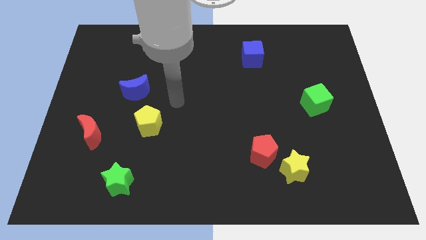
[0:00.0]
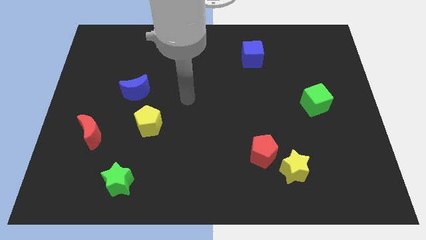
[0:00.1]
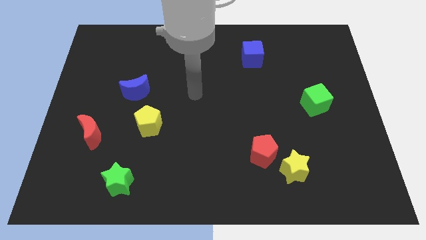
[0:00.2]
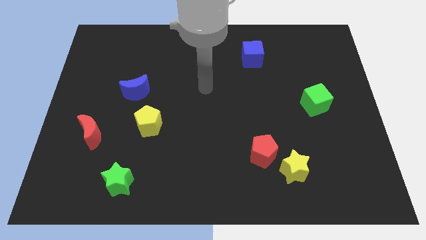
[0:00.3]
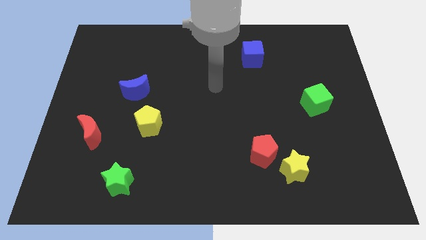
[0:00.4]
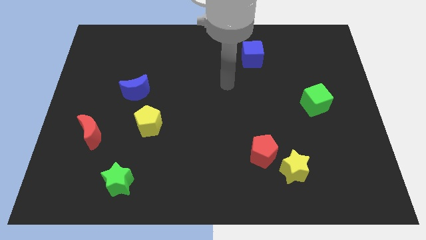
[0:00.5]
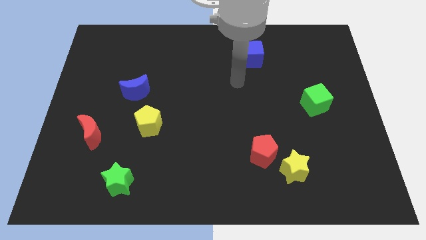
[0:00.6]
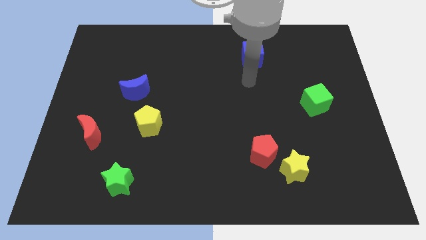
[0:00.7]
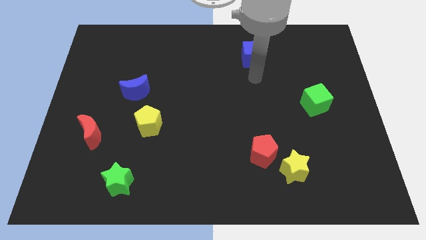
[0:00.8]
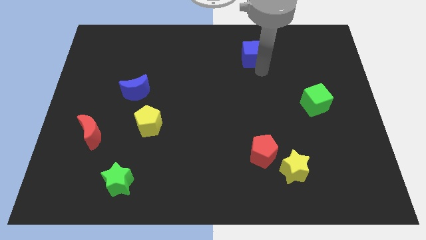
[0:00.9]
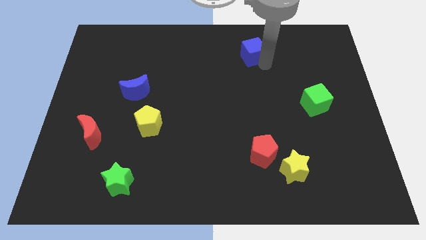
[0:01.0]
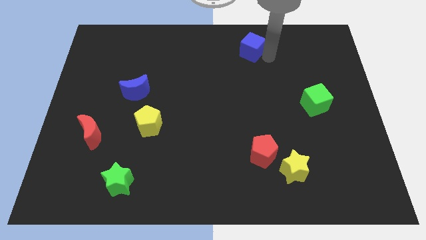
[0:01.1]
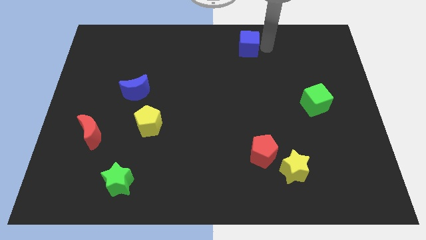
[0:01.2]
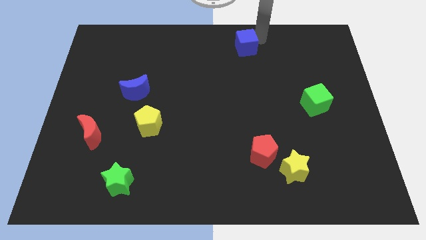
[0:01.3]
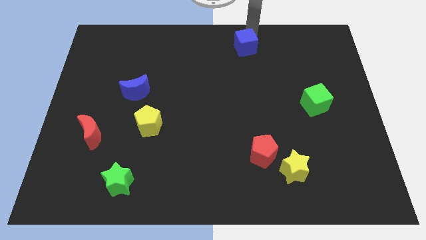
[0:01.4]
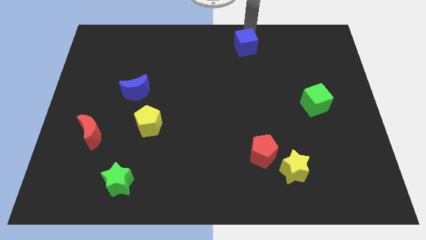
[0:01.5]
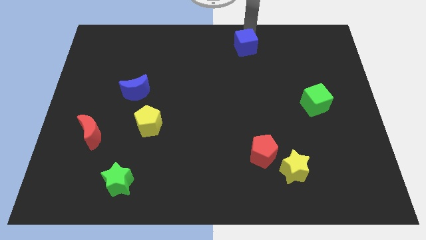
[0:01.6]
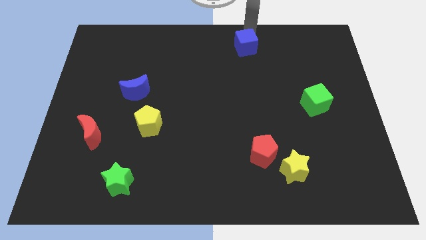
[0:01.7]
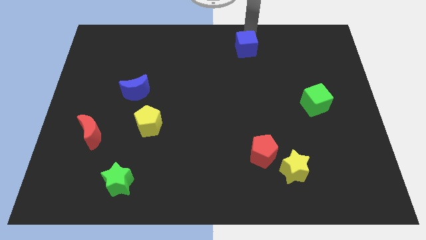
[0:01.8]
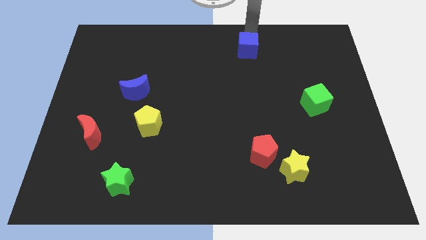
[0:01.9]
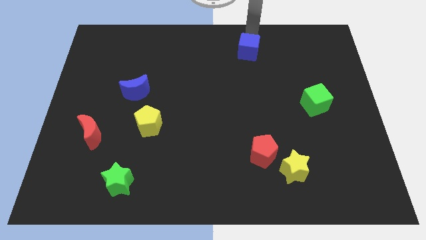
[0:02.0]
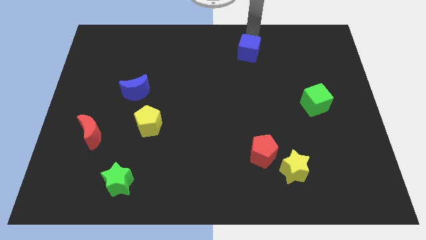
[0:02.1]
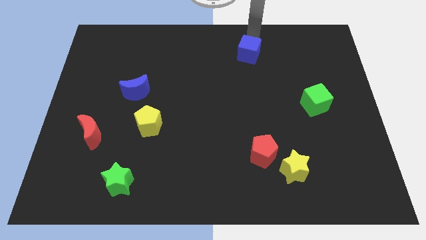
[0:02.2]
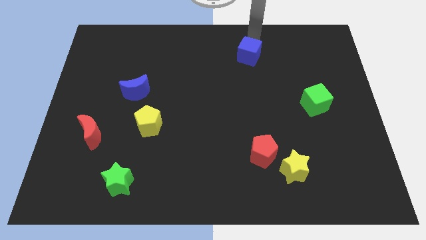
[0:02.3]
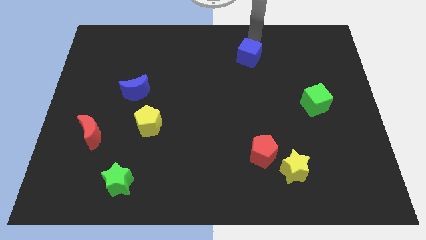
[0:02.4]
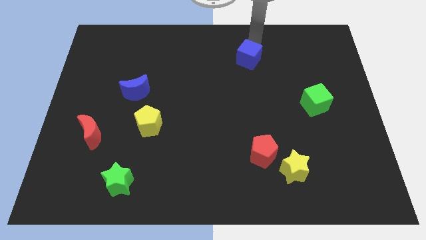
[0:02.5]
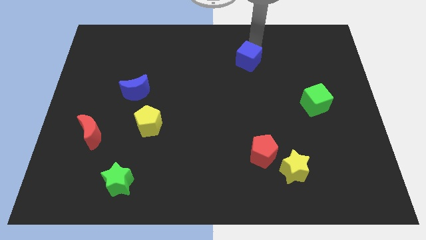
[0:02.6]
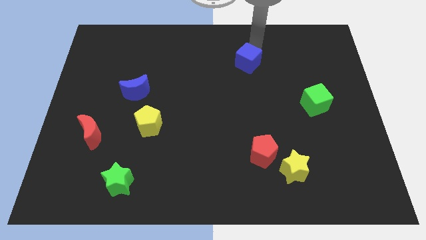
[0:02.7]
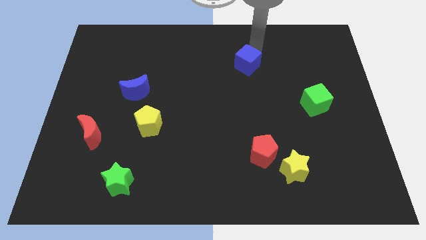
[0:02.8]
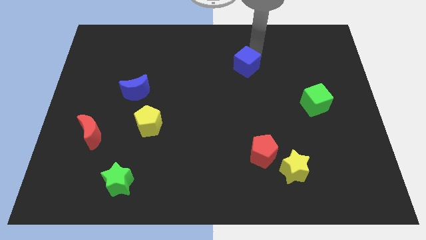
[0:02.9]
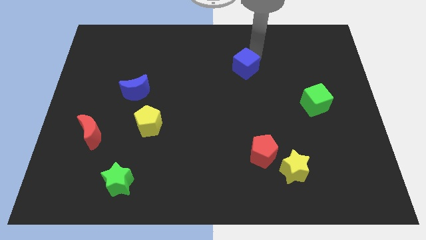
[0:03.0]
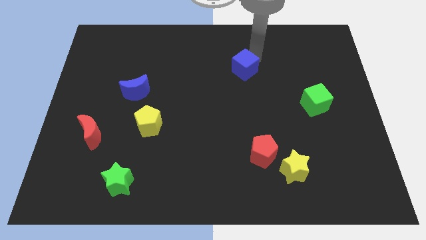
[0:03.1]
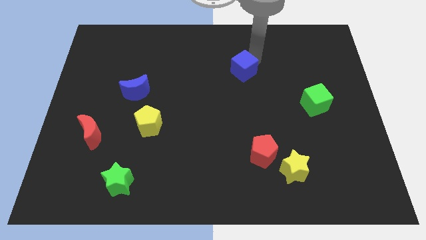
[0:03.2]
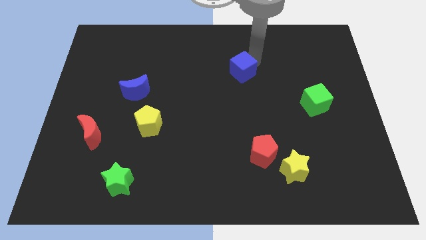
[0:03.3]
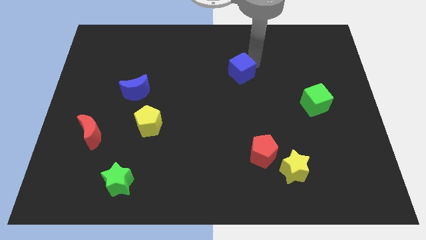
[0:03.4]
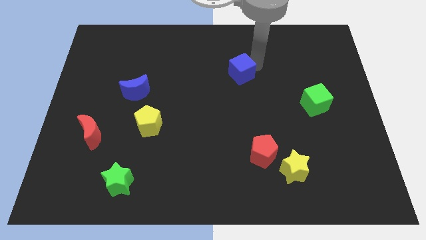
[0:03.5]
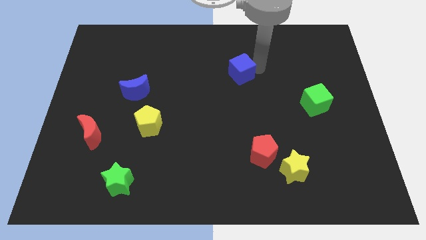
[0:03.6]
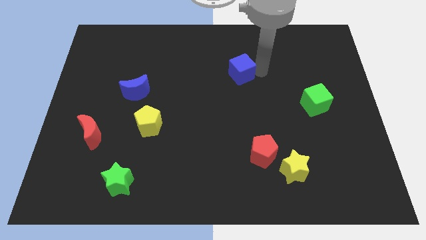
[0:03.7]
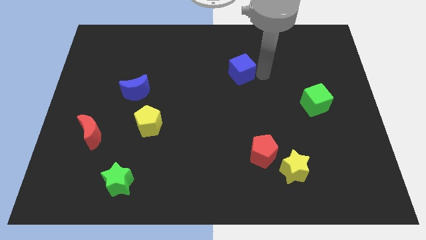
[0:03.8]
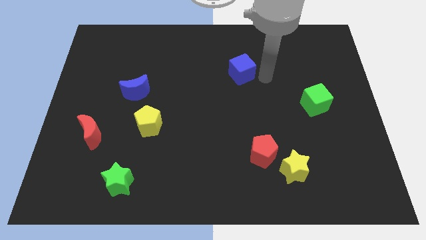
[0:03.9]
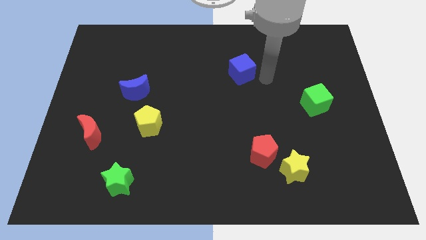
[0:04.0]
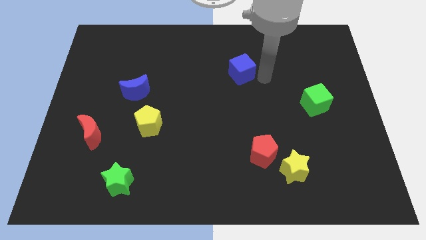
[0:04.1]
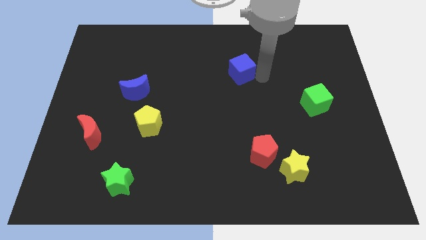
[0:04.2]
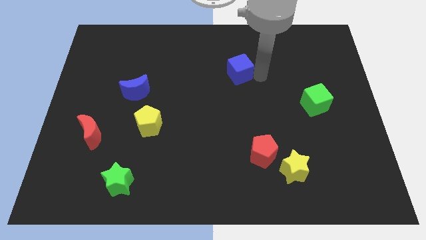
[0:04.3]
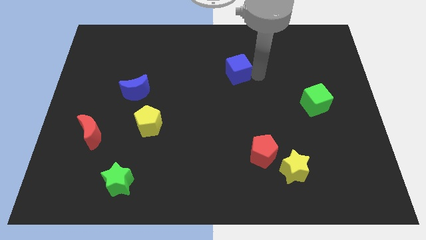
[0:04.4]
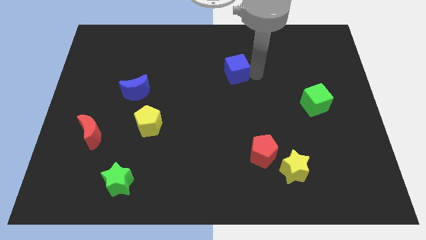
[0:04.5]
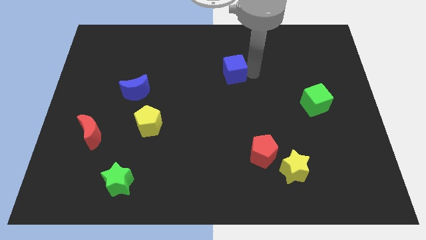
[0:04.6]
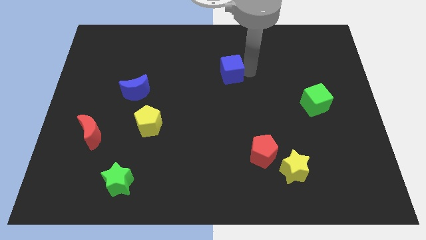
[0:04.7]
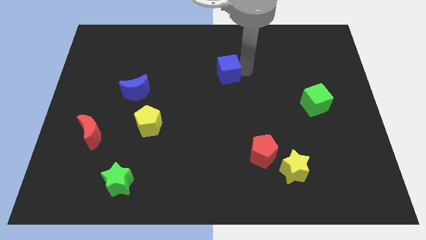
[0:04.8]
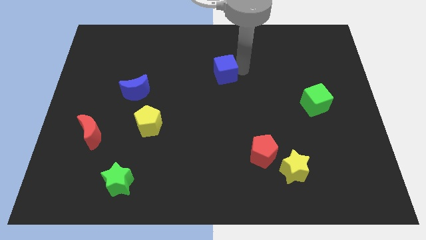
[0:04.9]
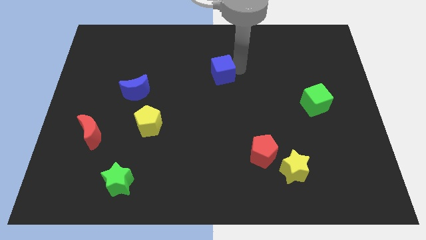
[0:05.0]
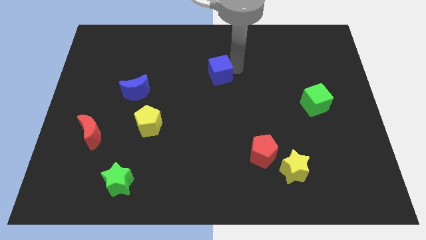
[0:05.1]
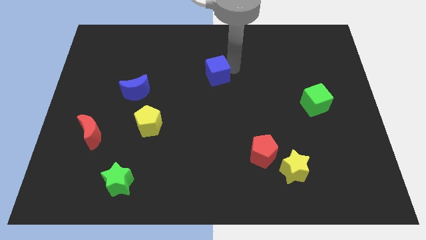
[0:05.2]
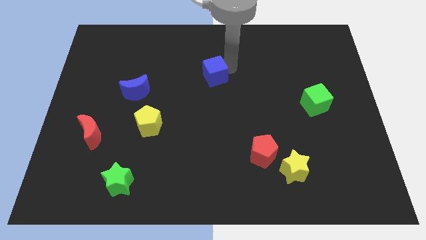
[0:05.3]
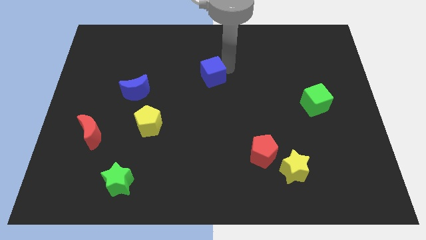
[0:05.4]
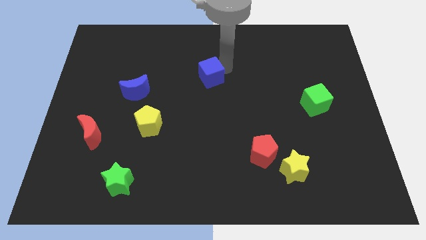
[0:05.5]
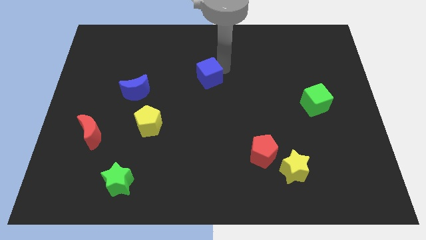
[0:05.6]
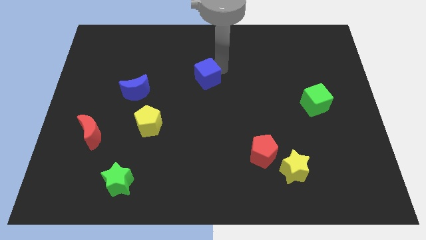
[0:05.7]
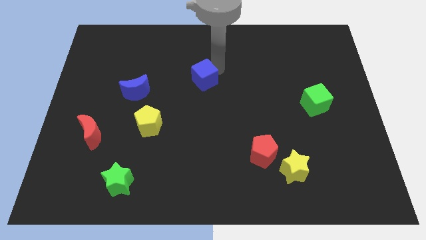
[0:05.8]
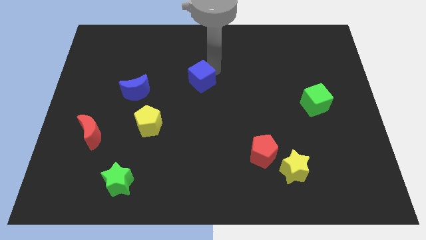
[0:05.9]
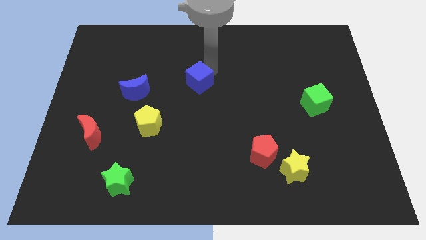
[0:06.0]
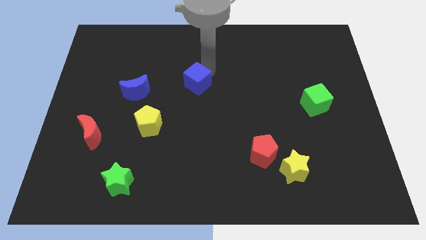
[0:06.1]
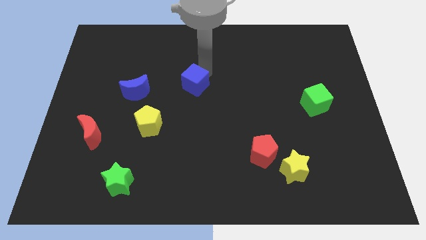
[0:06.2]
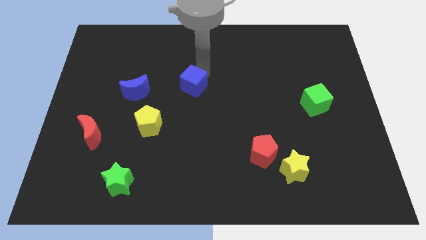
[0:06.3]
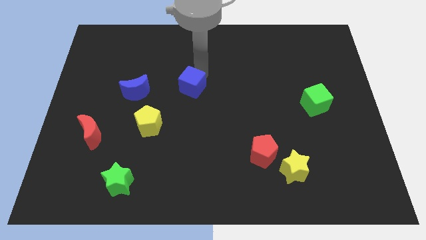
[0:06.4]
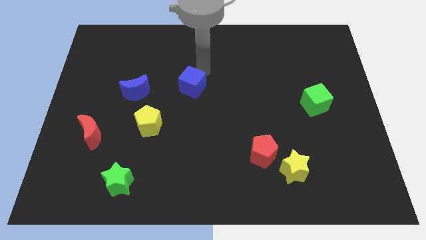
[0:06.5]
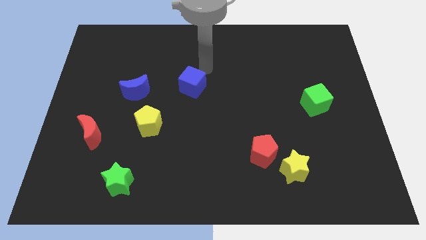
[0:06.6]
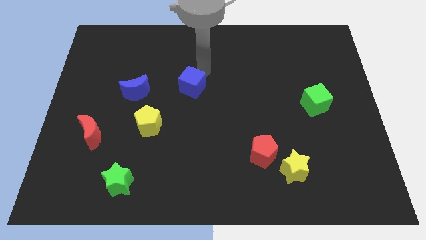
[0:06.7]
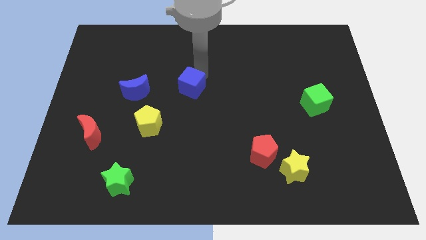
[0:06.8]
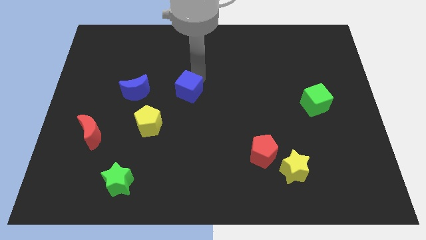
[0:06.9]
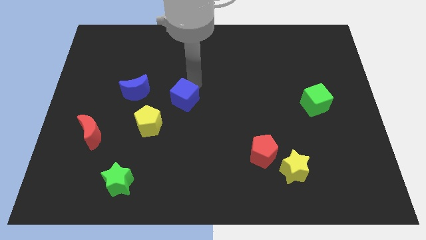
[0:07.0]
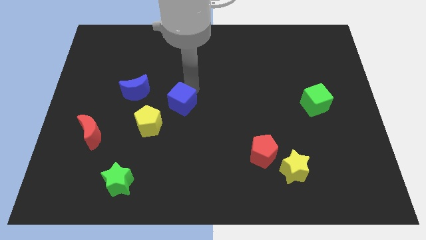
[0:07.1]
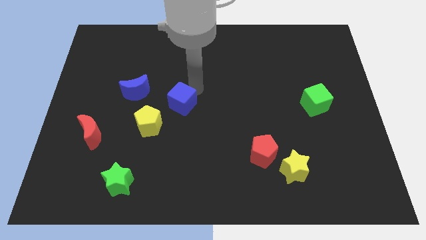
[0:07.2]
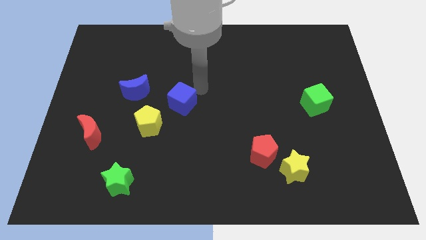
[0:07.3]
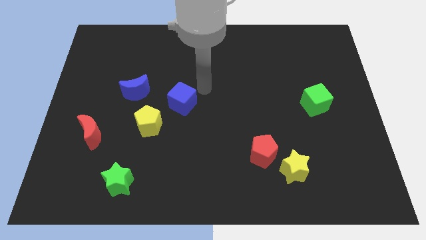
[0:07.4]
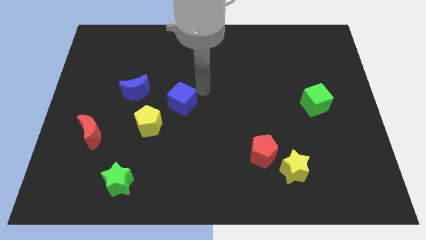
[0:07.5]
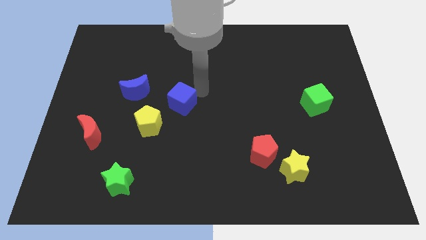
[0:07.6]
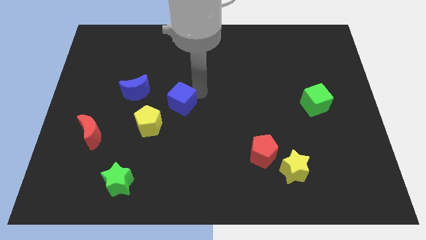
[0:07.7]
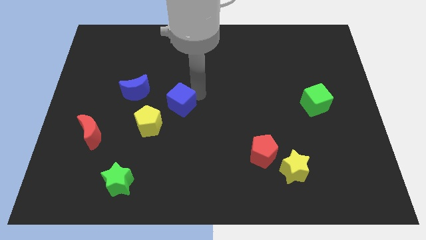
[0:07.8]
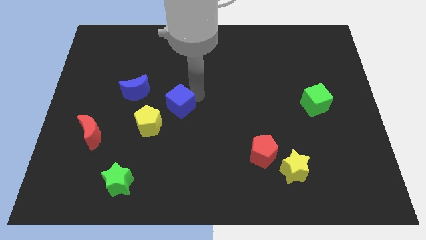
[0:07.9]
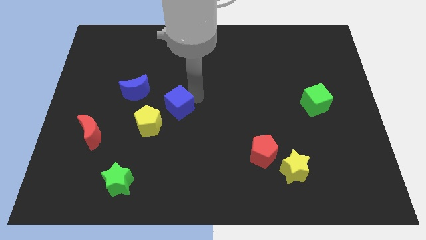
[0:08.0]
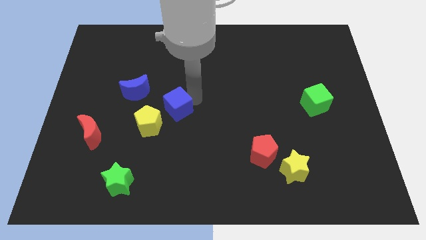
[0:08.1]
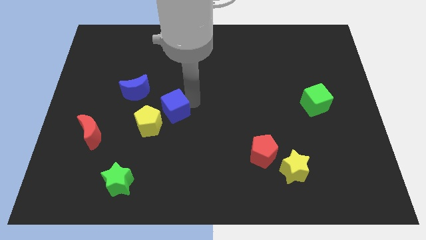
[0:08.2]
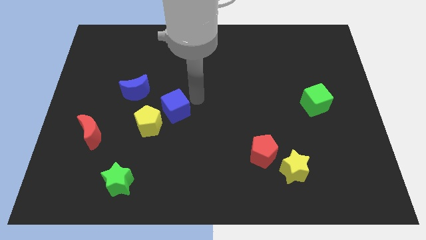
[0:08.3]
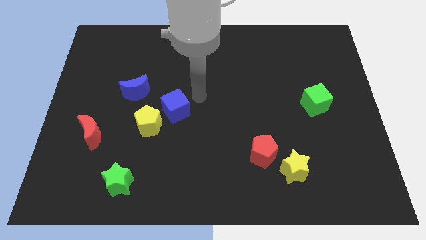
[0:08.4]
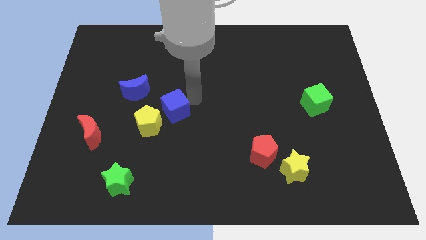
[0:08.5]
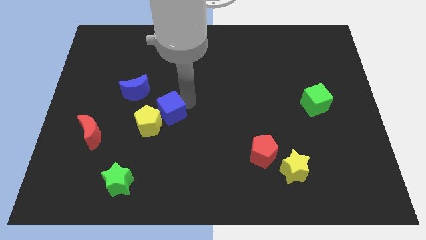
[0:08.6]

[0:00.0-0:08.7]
put the blue cube close to the yellow pentagon
